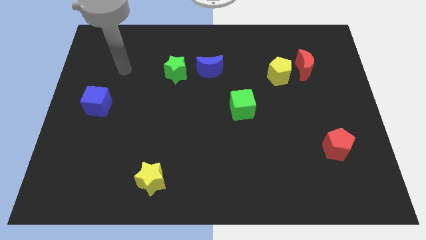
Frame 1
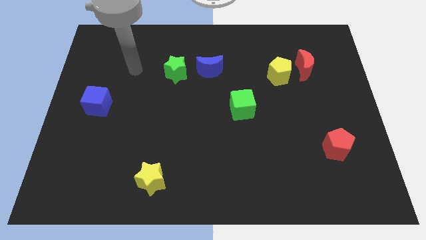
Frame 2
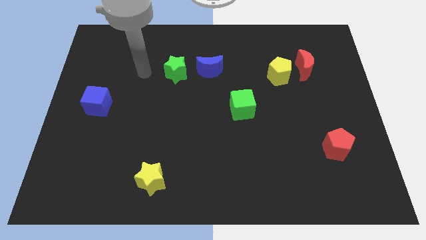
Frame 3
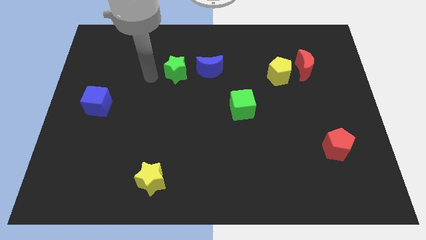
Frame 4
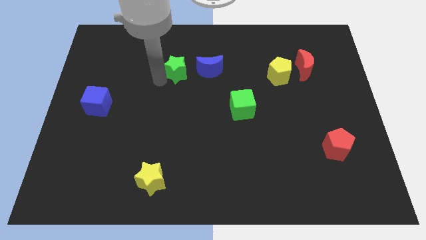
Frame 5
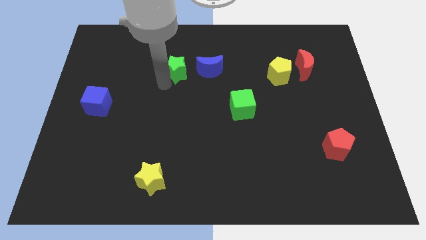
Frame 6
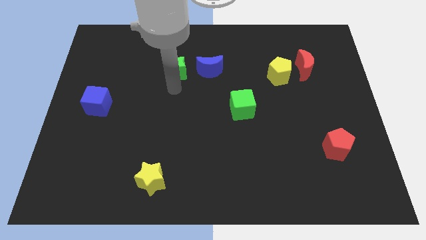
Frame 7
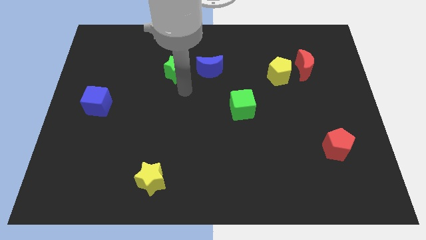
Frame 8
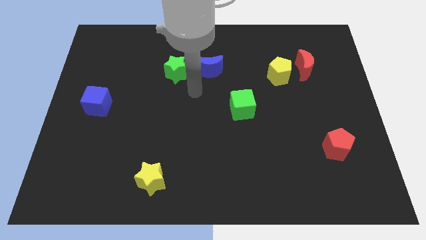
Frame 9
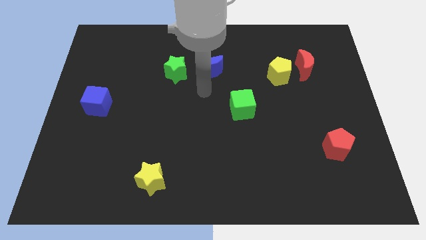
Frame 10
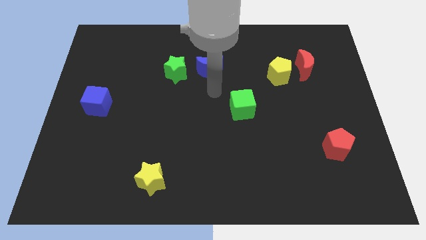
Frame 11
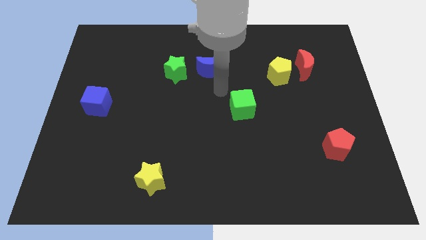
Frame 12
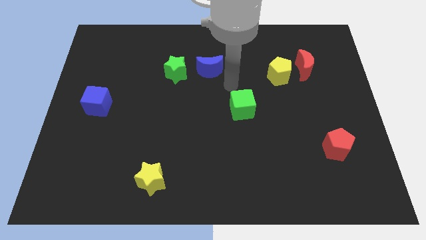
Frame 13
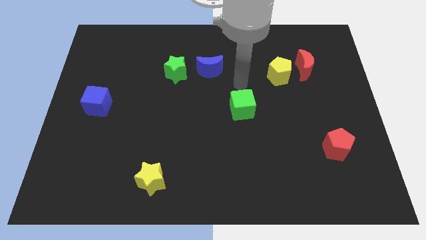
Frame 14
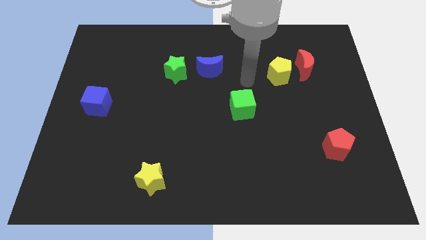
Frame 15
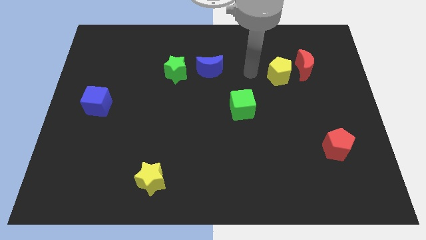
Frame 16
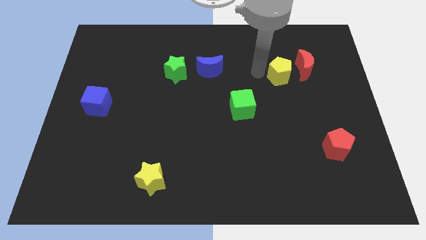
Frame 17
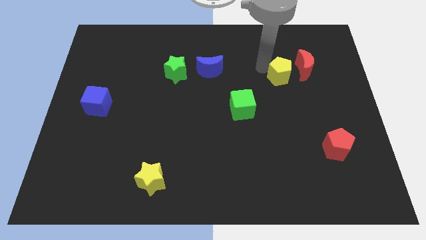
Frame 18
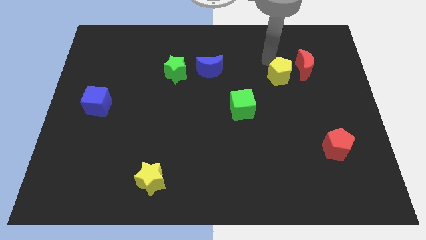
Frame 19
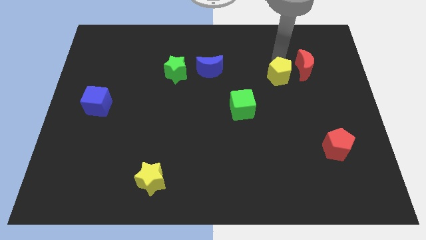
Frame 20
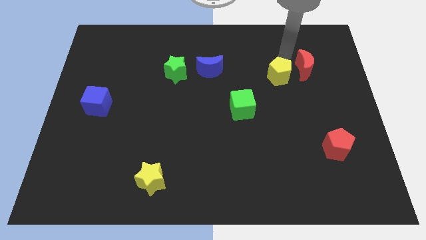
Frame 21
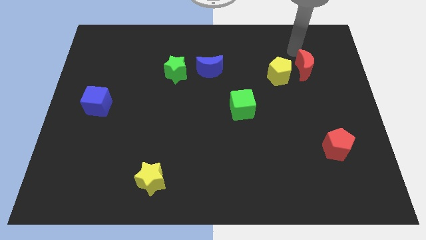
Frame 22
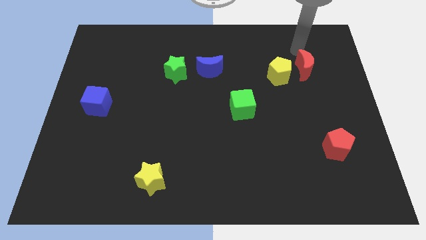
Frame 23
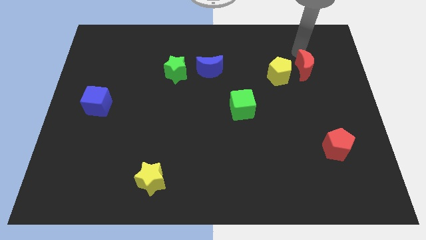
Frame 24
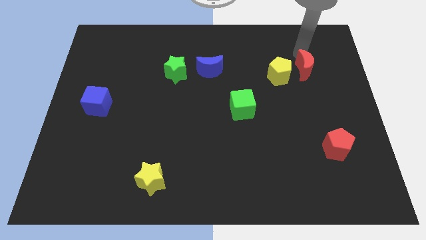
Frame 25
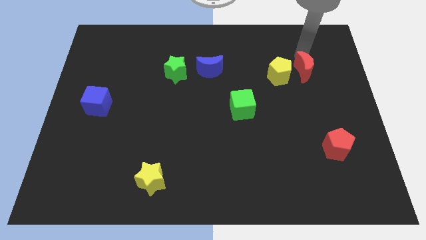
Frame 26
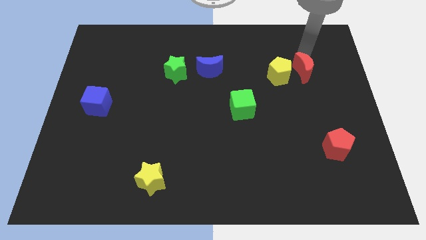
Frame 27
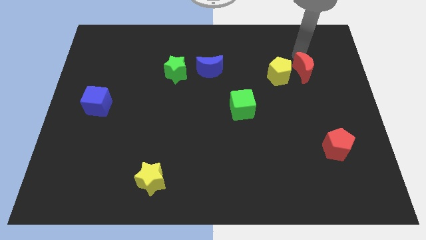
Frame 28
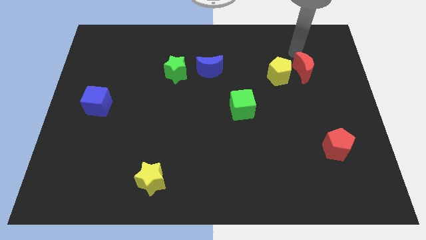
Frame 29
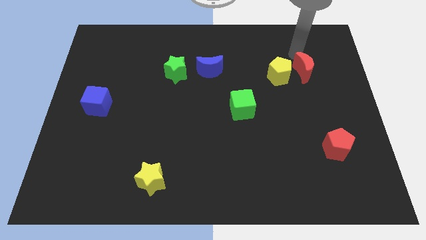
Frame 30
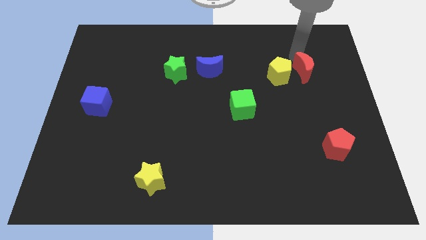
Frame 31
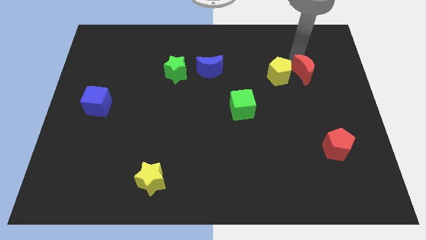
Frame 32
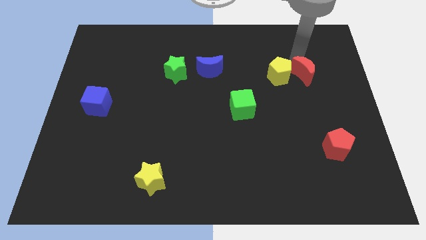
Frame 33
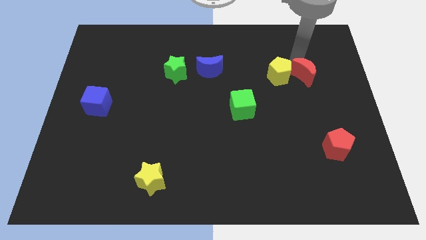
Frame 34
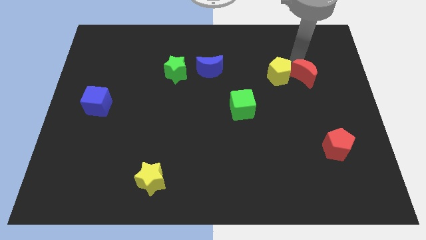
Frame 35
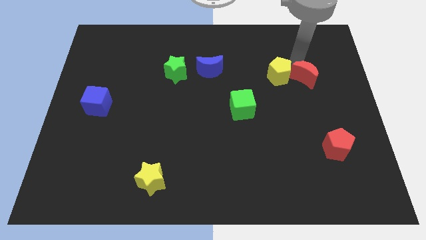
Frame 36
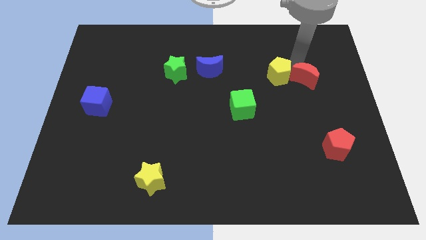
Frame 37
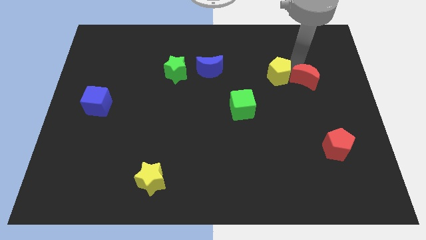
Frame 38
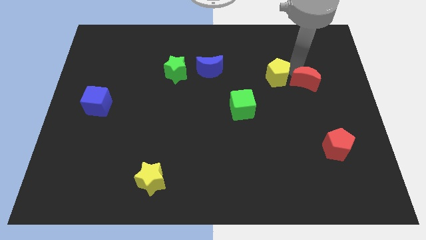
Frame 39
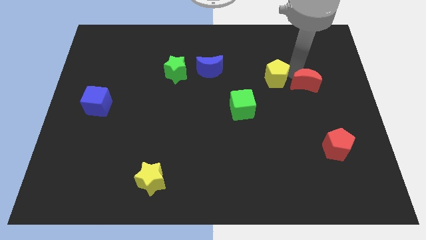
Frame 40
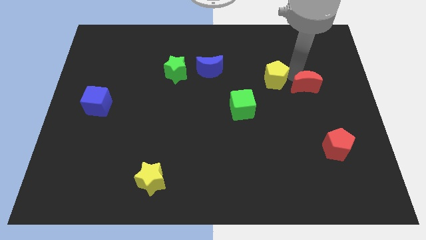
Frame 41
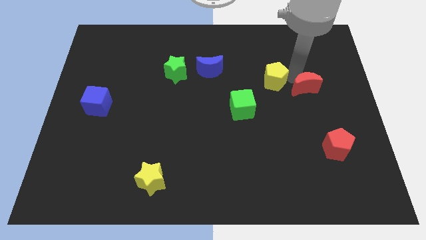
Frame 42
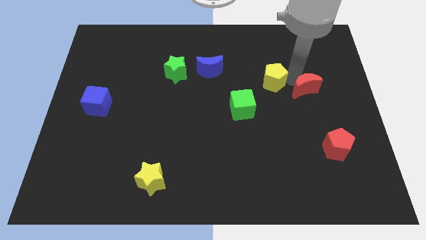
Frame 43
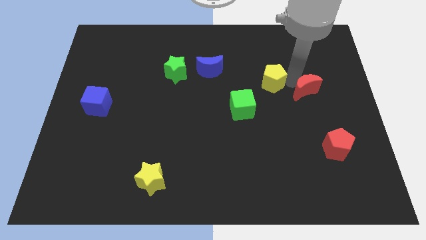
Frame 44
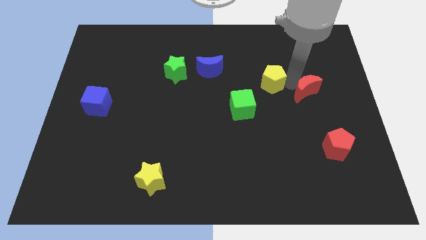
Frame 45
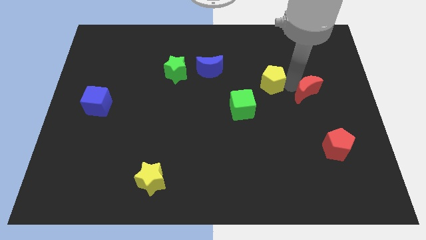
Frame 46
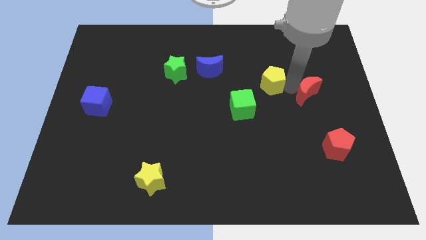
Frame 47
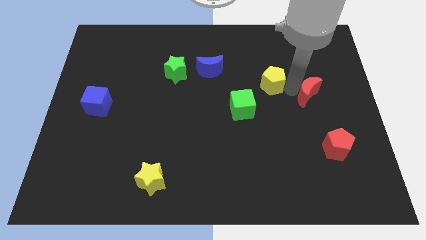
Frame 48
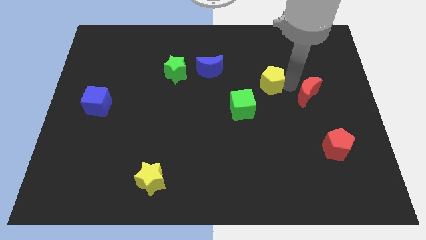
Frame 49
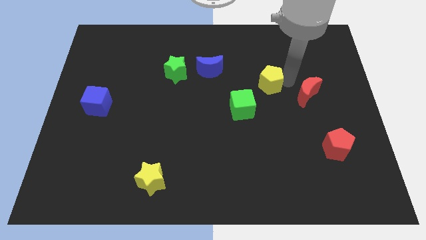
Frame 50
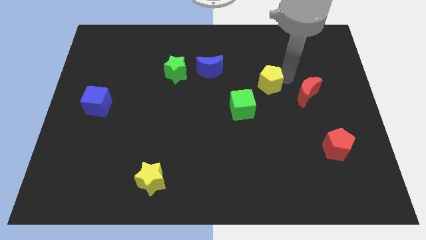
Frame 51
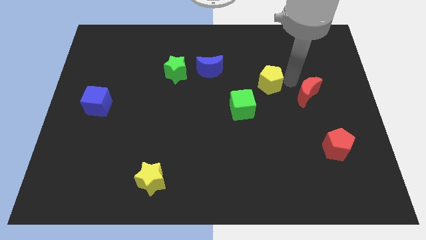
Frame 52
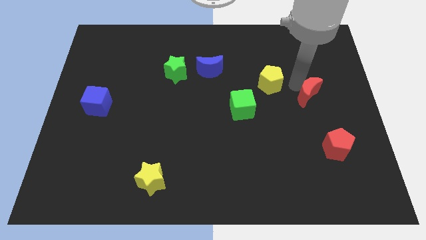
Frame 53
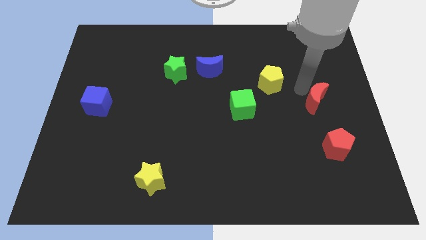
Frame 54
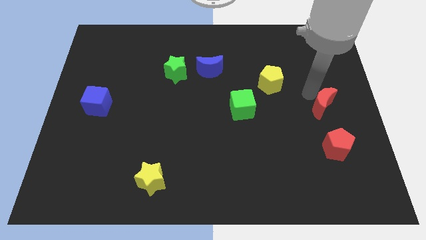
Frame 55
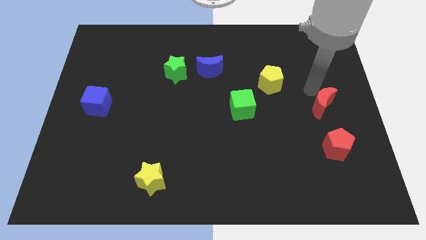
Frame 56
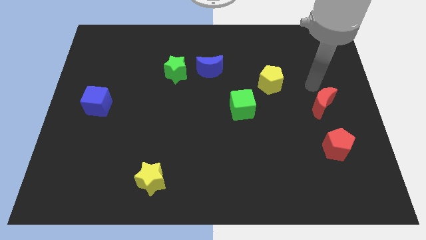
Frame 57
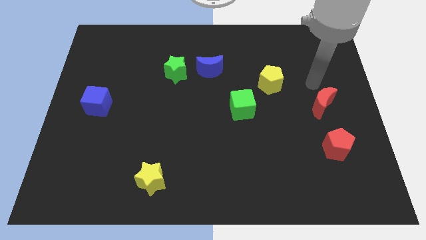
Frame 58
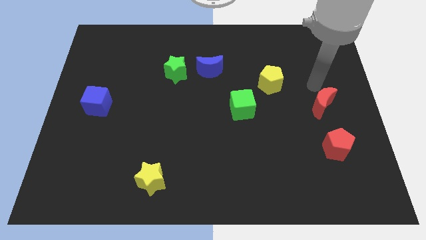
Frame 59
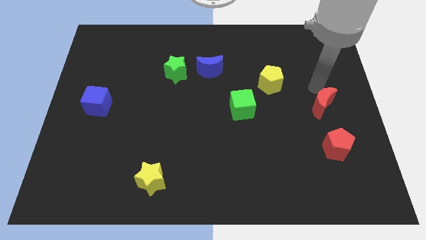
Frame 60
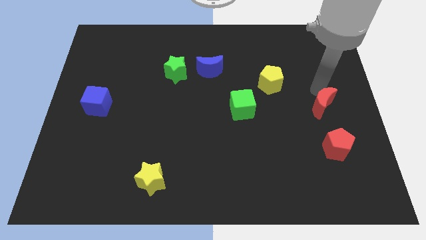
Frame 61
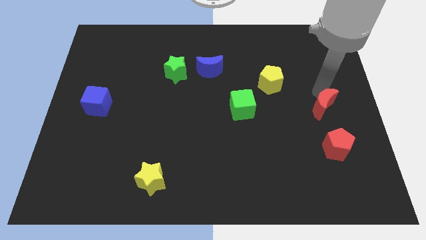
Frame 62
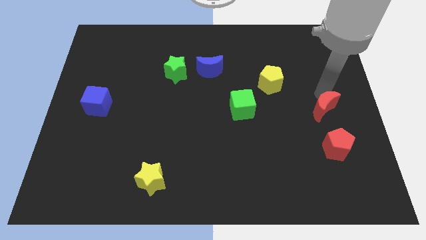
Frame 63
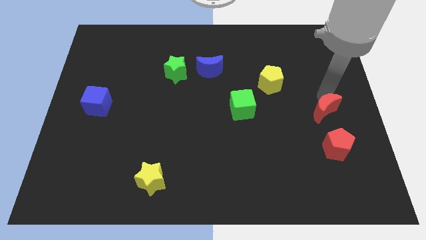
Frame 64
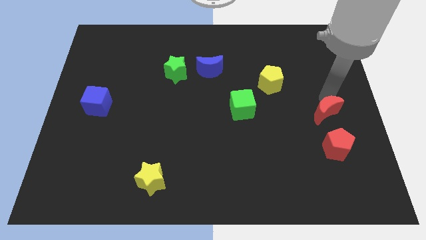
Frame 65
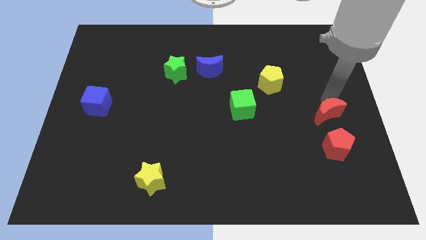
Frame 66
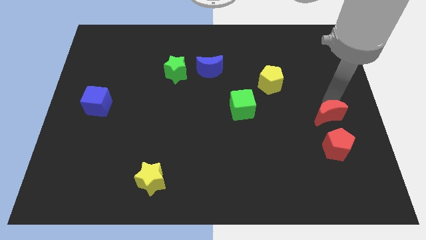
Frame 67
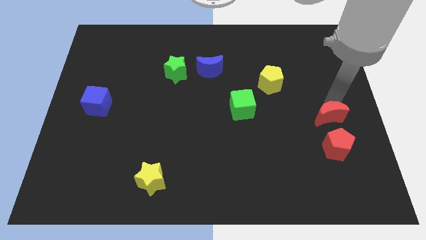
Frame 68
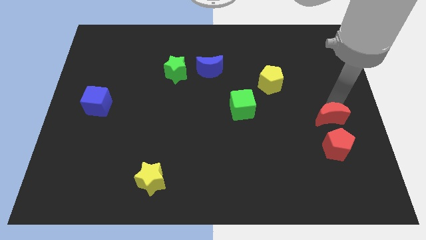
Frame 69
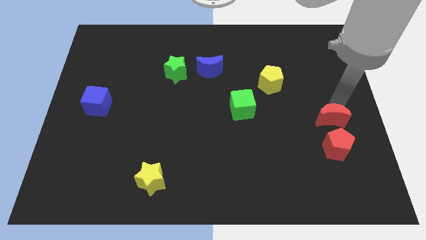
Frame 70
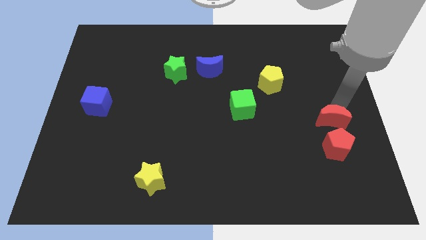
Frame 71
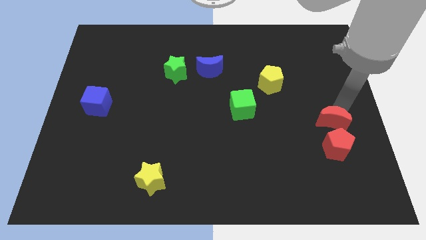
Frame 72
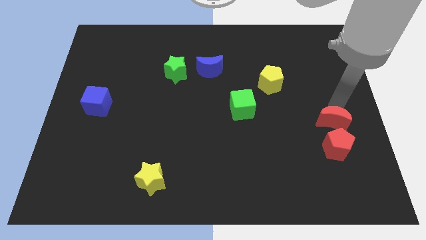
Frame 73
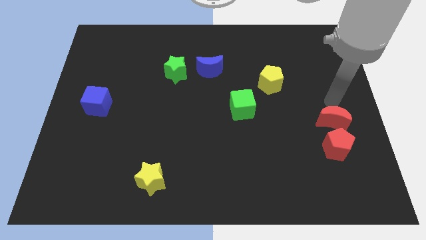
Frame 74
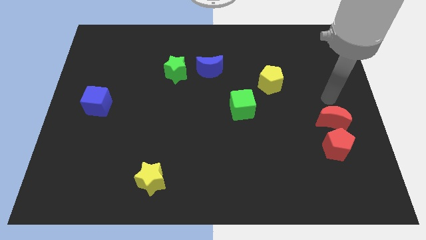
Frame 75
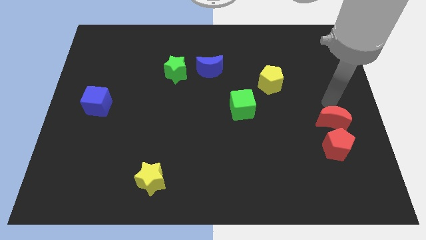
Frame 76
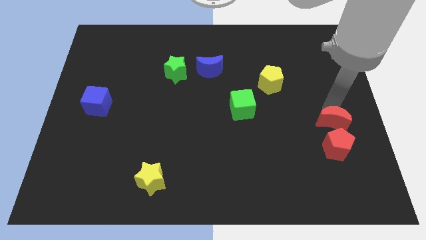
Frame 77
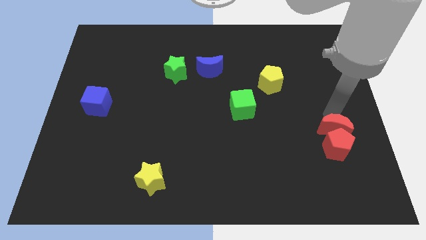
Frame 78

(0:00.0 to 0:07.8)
push the red moon towards the red pentagon
